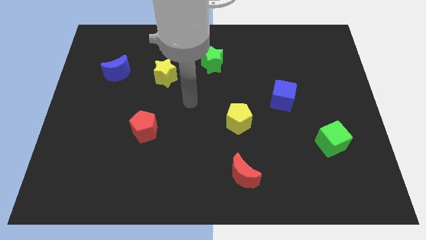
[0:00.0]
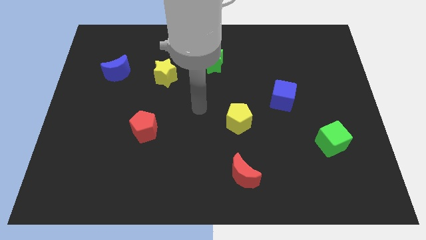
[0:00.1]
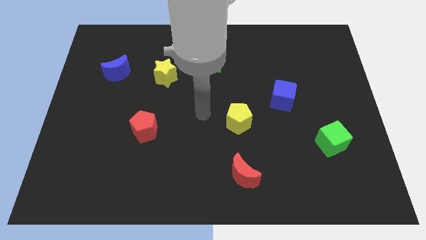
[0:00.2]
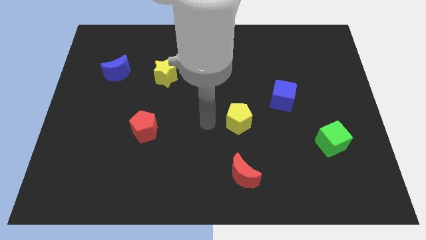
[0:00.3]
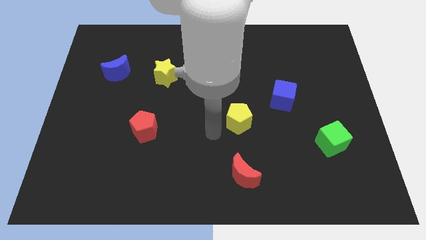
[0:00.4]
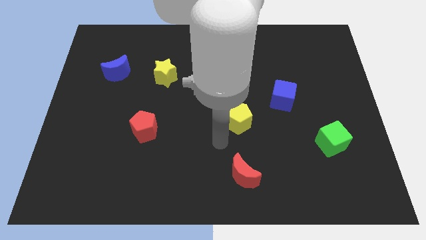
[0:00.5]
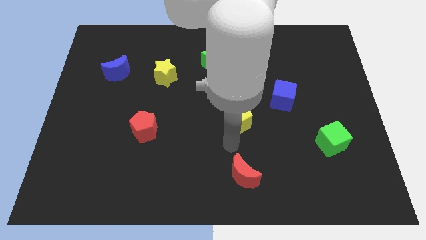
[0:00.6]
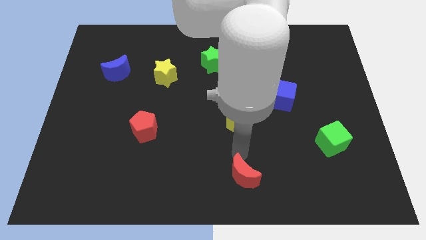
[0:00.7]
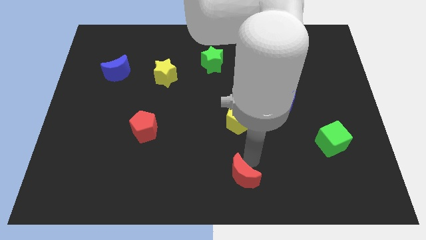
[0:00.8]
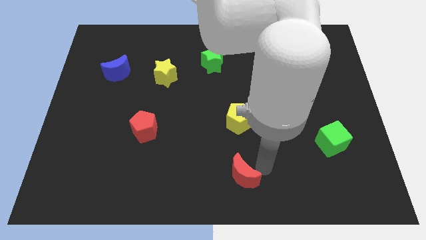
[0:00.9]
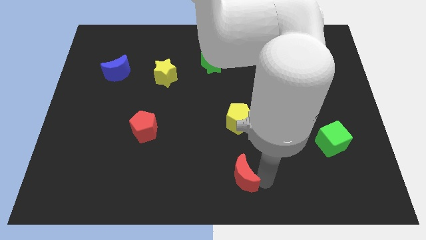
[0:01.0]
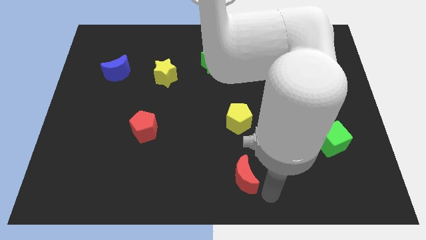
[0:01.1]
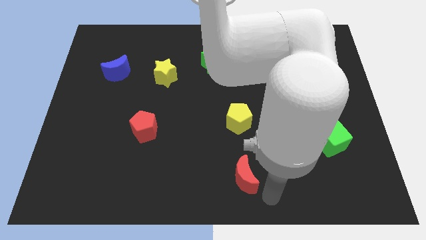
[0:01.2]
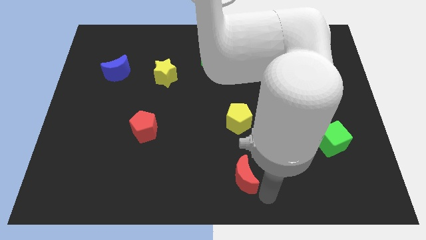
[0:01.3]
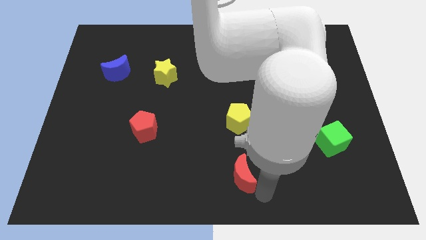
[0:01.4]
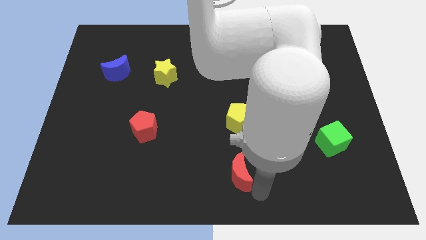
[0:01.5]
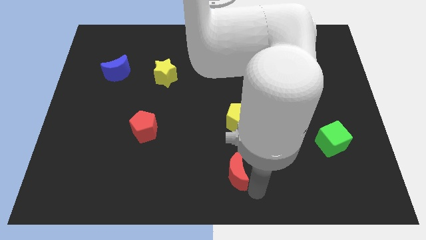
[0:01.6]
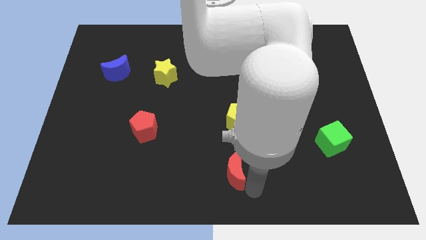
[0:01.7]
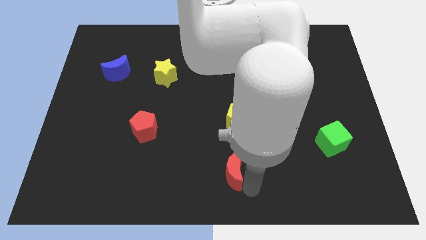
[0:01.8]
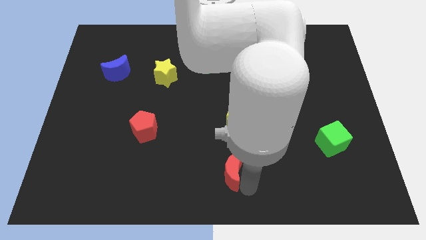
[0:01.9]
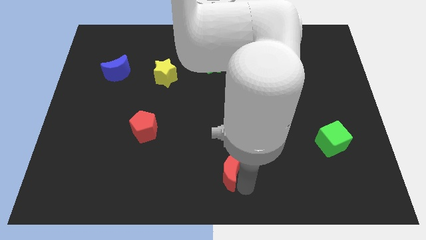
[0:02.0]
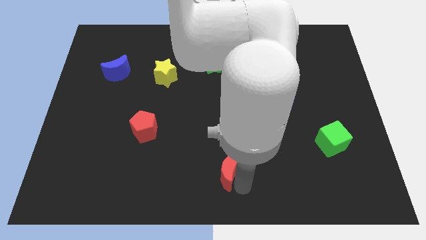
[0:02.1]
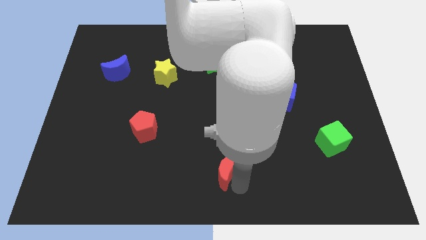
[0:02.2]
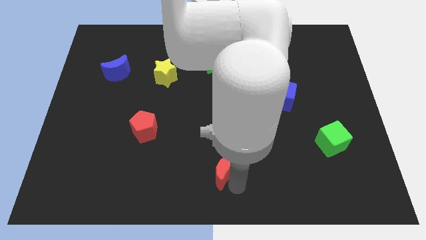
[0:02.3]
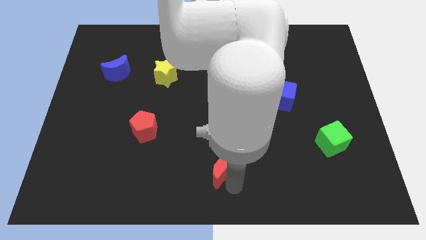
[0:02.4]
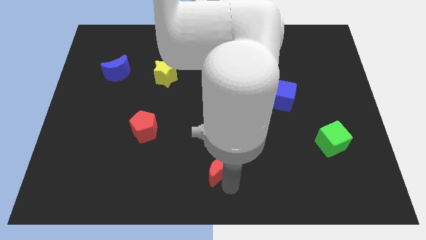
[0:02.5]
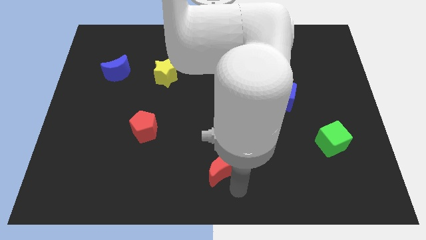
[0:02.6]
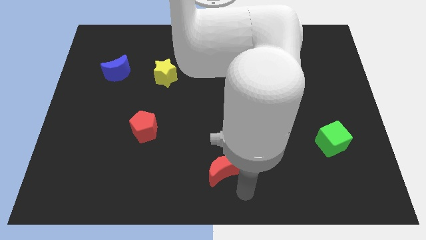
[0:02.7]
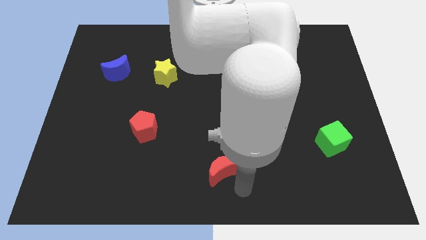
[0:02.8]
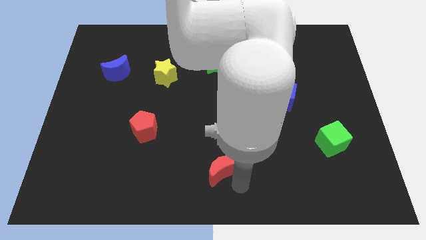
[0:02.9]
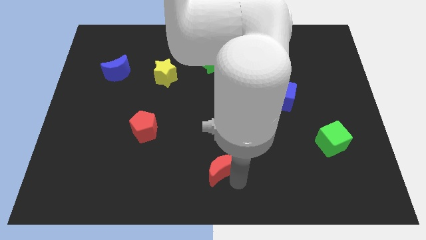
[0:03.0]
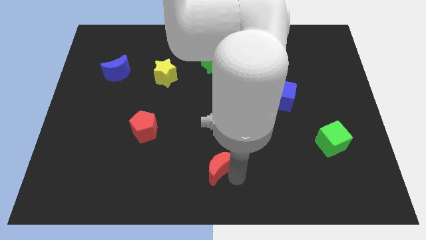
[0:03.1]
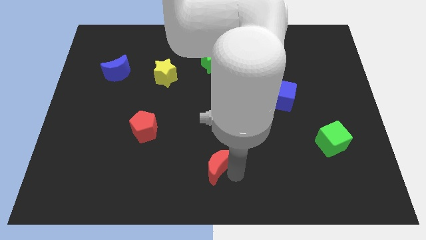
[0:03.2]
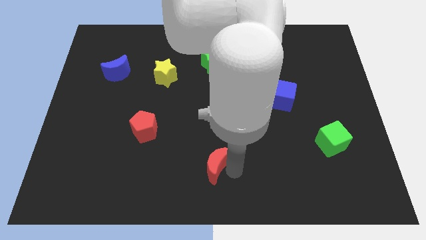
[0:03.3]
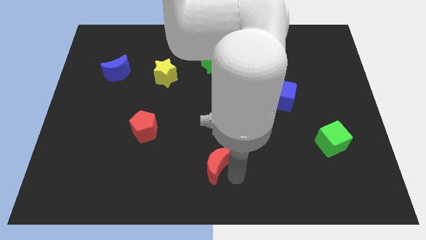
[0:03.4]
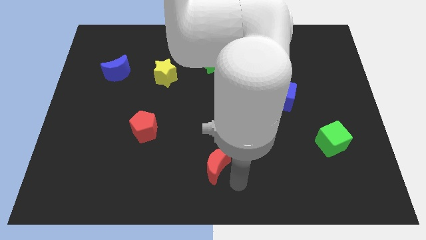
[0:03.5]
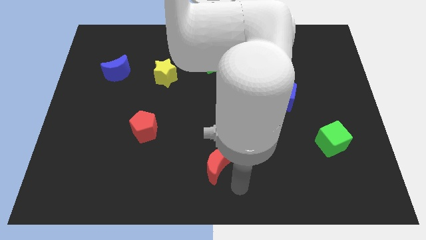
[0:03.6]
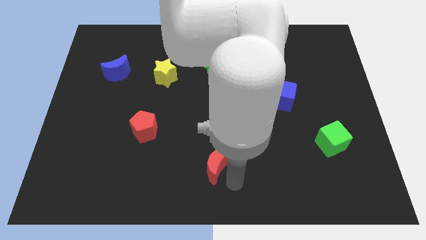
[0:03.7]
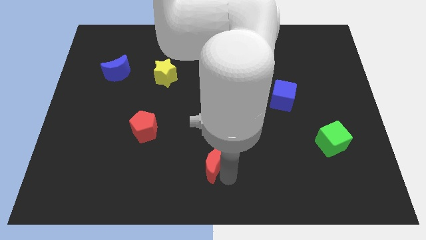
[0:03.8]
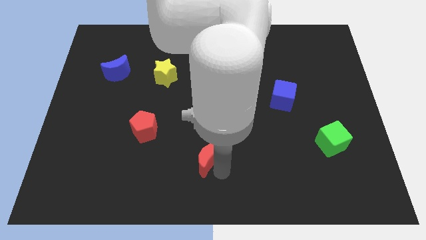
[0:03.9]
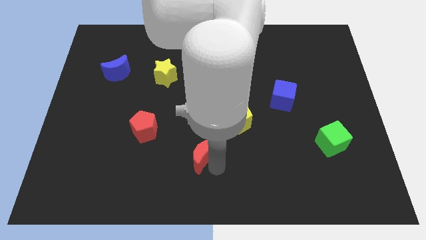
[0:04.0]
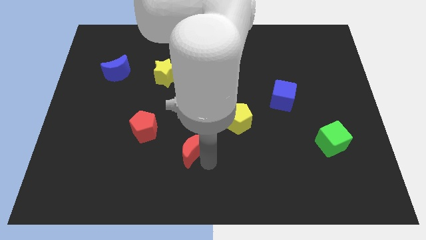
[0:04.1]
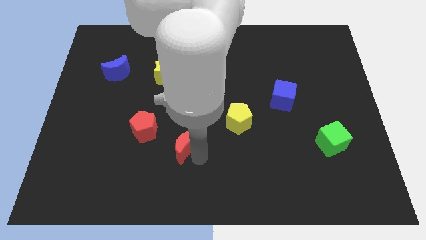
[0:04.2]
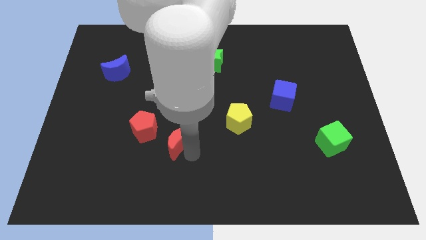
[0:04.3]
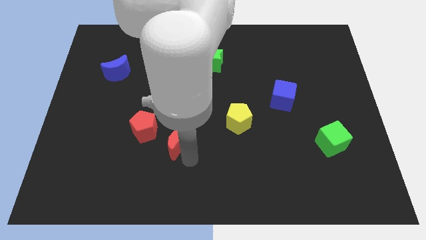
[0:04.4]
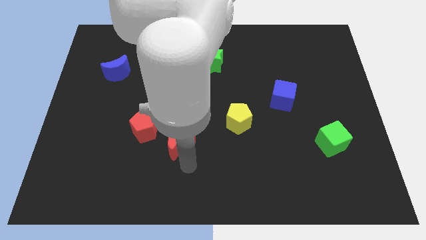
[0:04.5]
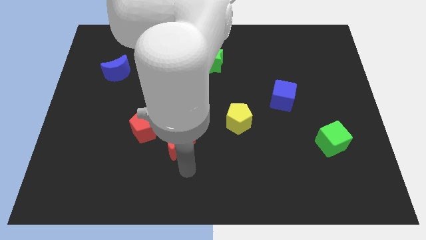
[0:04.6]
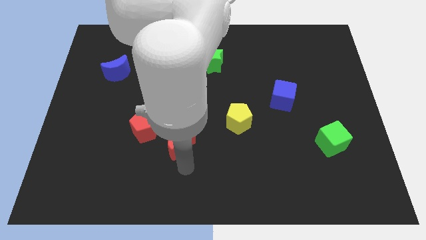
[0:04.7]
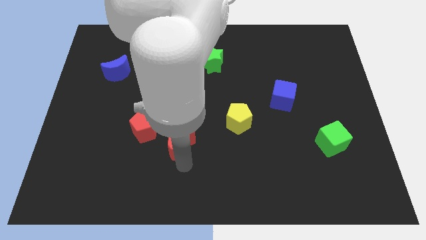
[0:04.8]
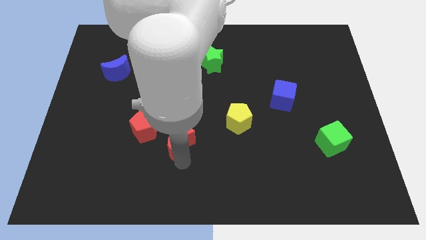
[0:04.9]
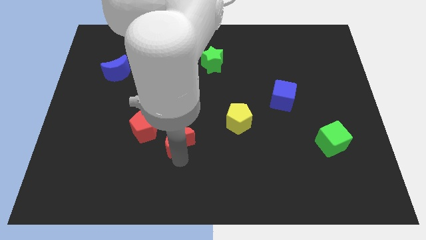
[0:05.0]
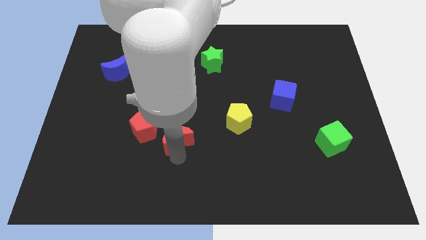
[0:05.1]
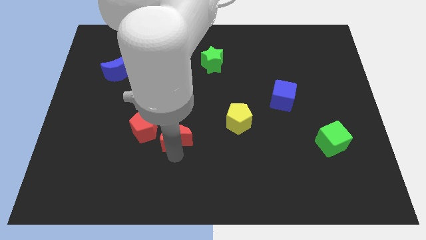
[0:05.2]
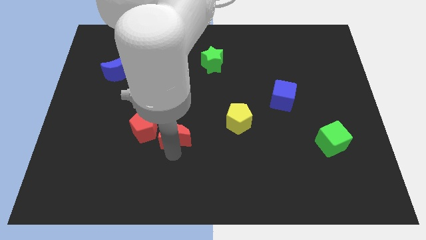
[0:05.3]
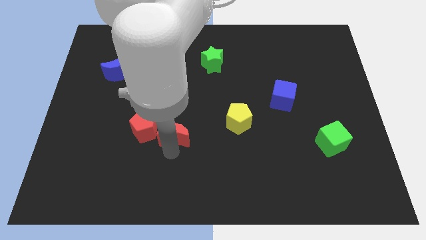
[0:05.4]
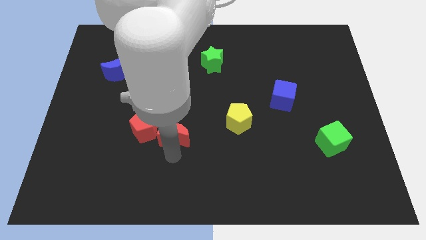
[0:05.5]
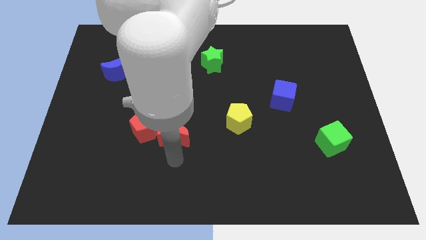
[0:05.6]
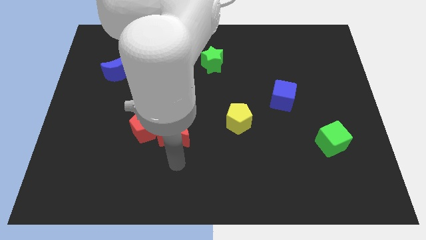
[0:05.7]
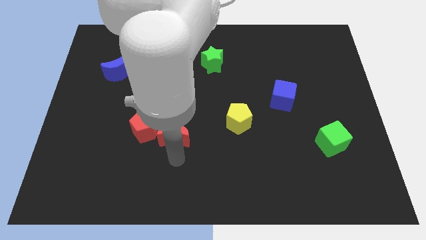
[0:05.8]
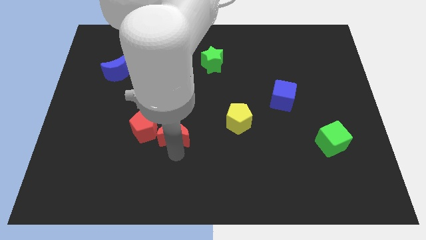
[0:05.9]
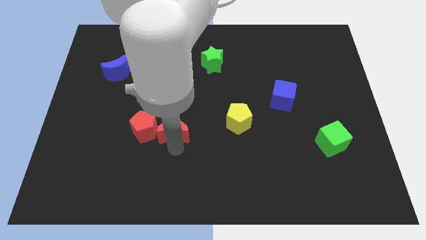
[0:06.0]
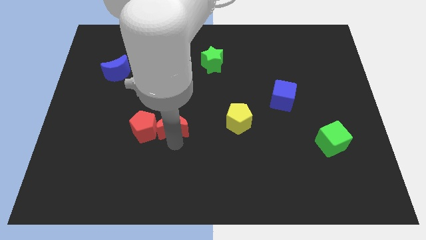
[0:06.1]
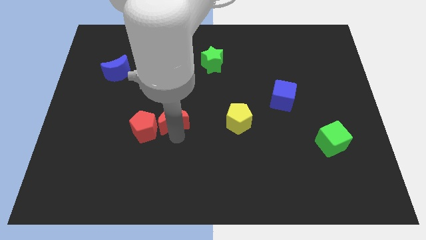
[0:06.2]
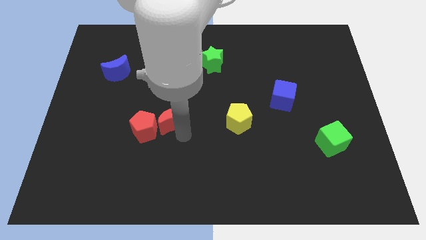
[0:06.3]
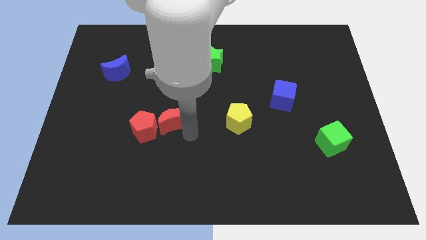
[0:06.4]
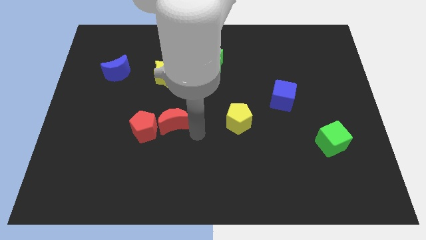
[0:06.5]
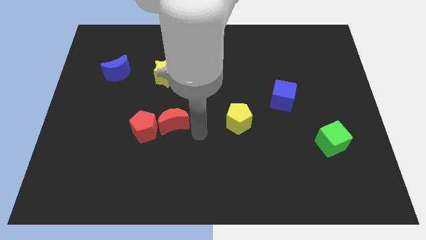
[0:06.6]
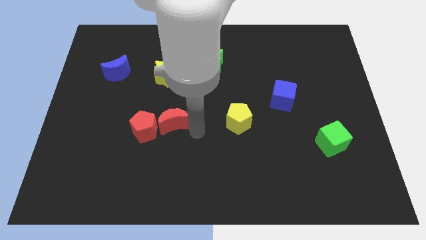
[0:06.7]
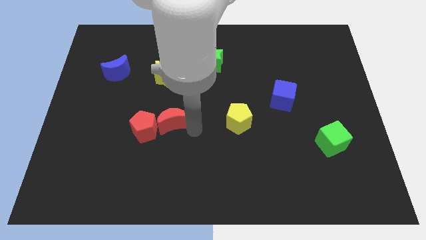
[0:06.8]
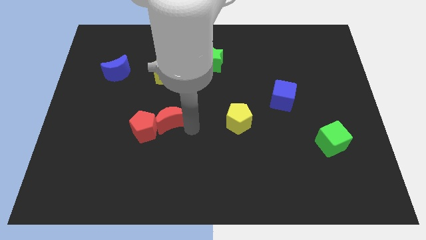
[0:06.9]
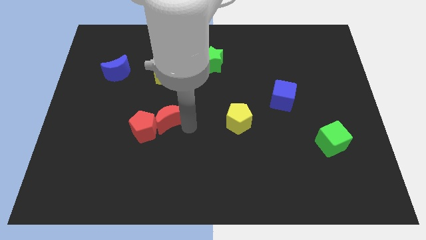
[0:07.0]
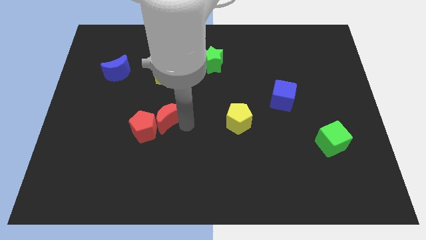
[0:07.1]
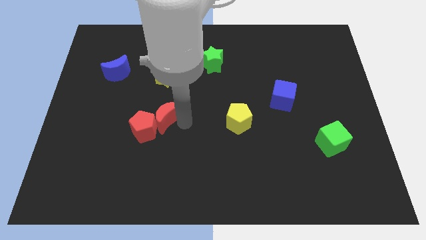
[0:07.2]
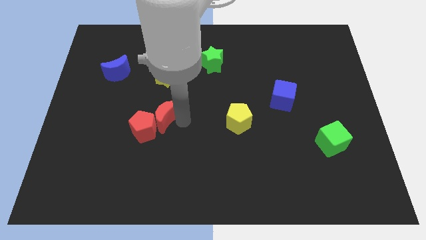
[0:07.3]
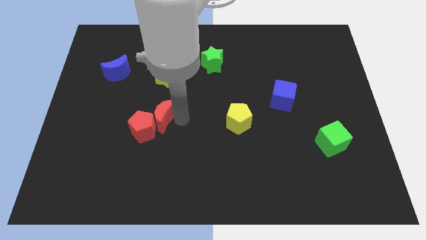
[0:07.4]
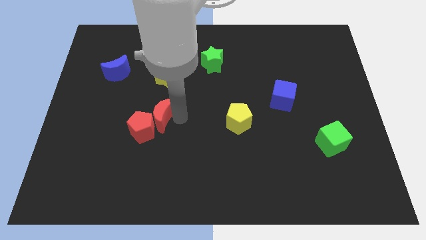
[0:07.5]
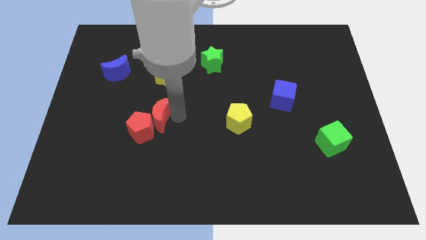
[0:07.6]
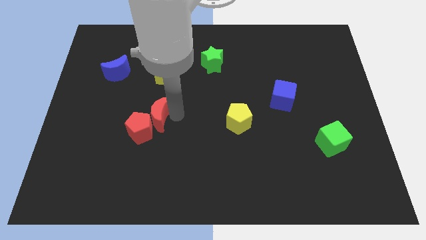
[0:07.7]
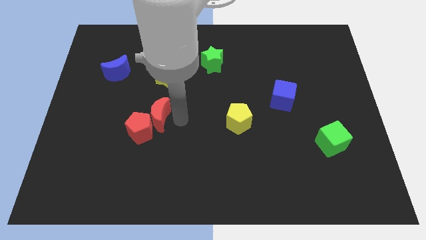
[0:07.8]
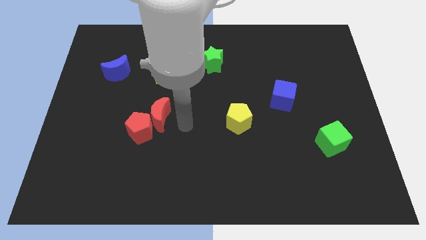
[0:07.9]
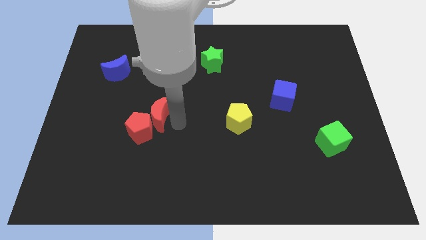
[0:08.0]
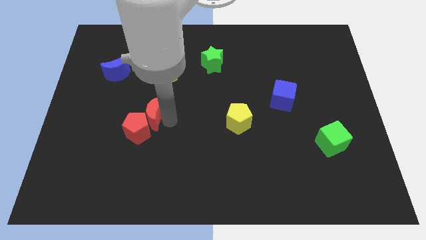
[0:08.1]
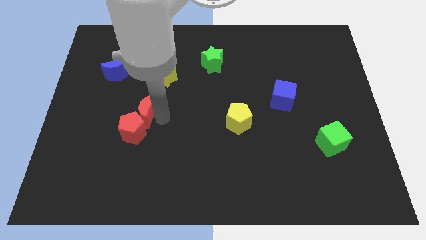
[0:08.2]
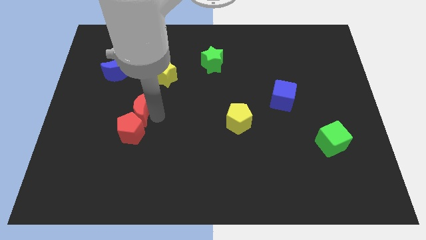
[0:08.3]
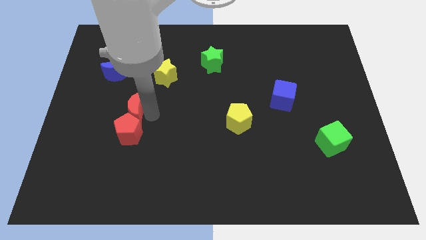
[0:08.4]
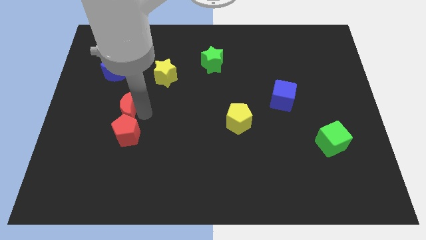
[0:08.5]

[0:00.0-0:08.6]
push the red moon to the bottom of the blue moon
